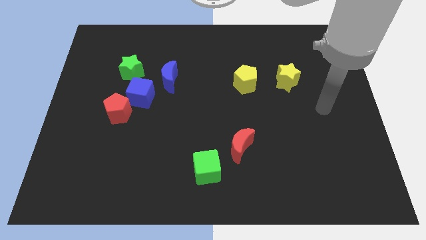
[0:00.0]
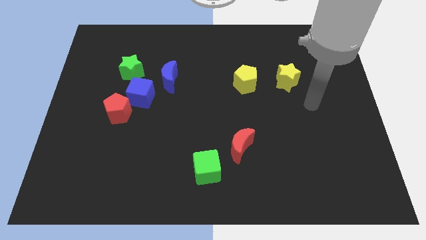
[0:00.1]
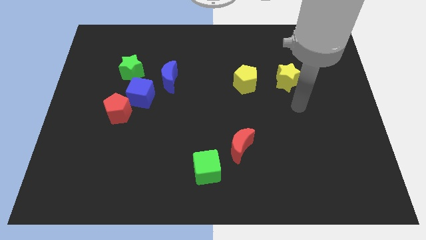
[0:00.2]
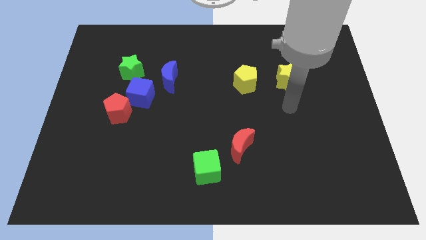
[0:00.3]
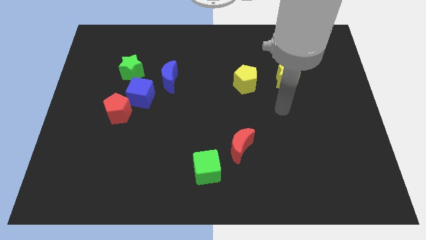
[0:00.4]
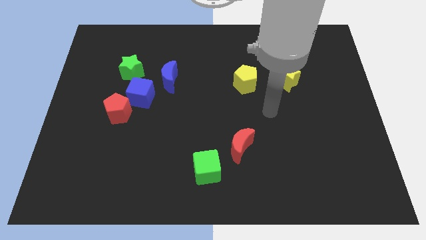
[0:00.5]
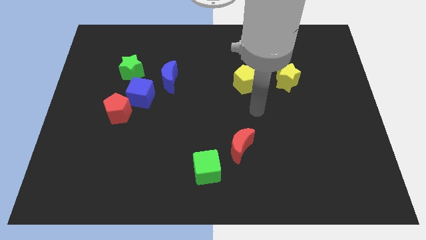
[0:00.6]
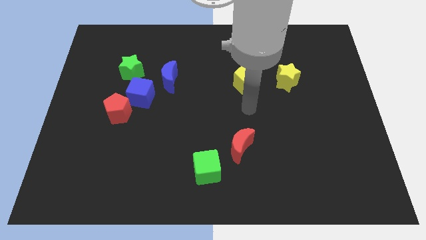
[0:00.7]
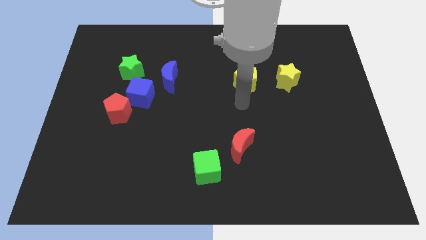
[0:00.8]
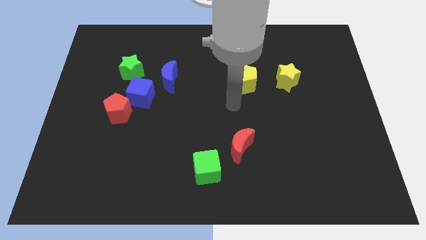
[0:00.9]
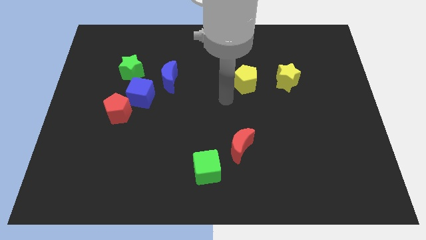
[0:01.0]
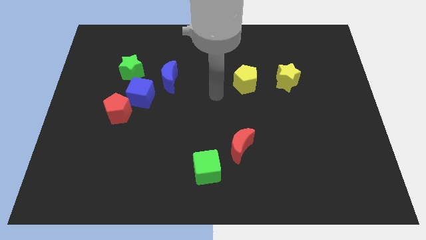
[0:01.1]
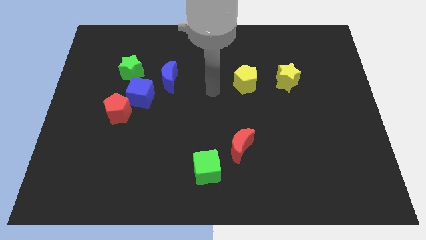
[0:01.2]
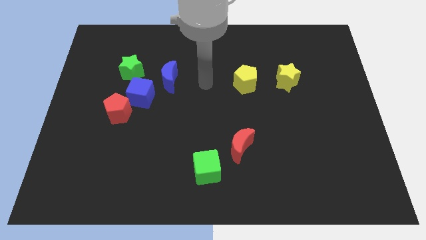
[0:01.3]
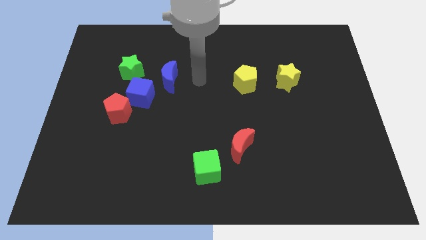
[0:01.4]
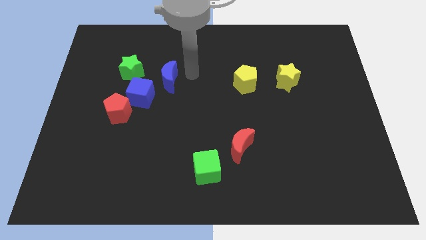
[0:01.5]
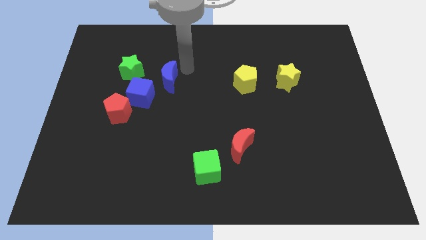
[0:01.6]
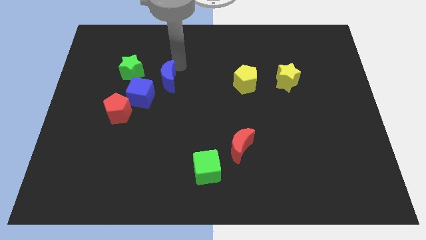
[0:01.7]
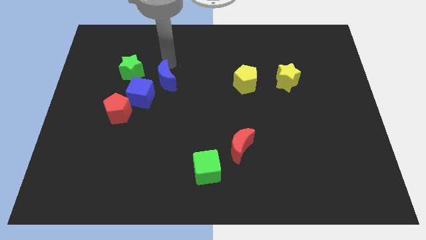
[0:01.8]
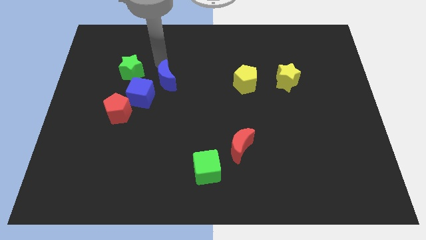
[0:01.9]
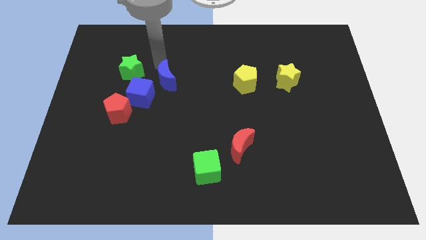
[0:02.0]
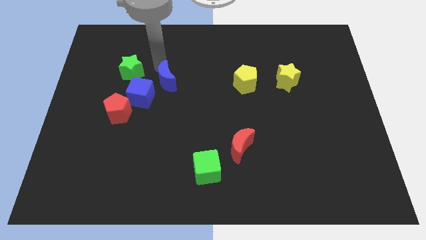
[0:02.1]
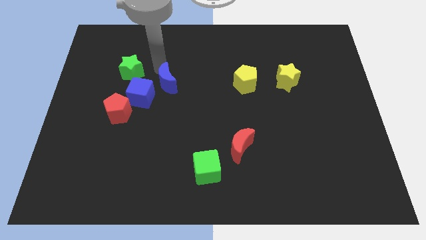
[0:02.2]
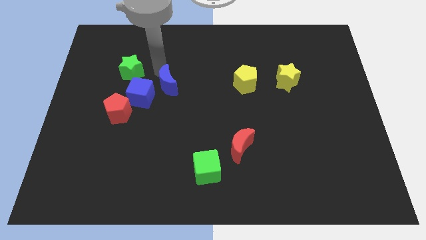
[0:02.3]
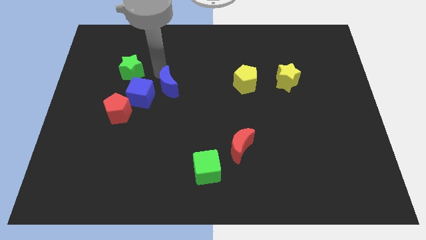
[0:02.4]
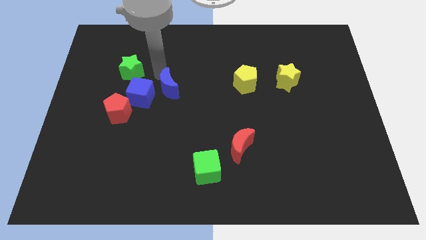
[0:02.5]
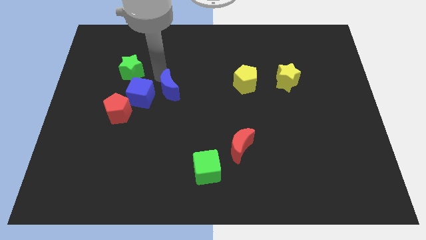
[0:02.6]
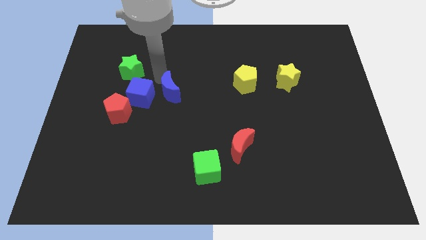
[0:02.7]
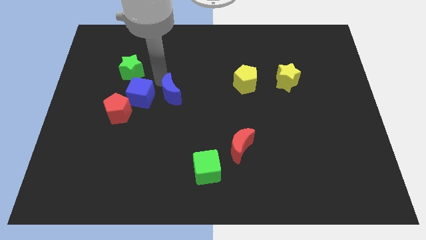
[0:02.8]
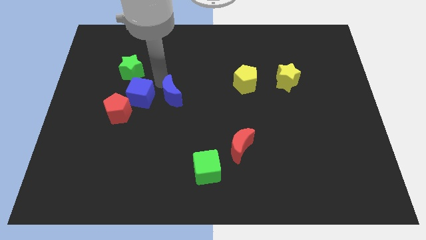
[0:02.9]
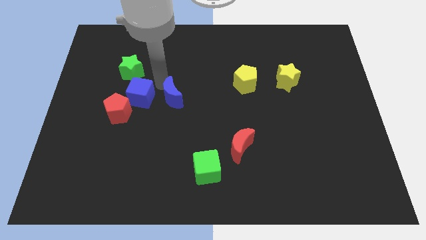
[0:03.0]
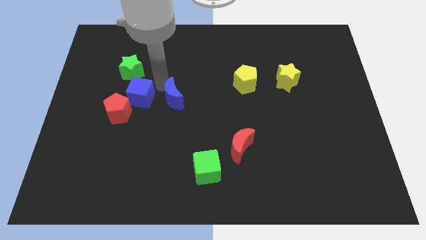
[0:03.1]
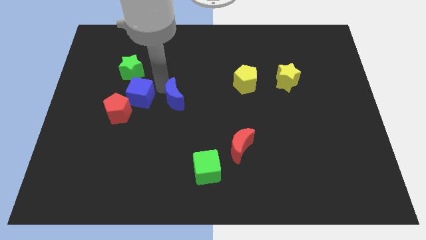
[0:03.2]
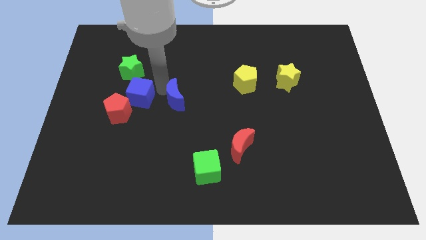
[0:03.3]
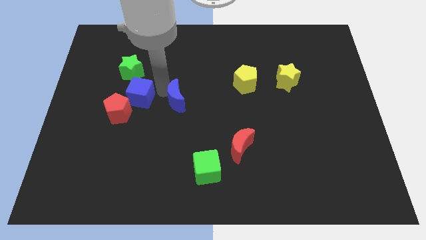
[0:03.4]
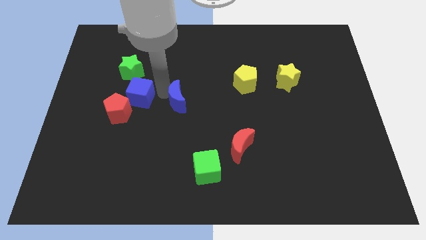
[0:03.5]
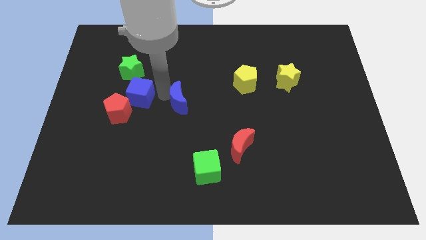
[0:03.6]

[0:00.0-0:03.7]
slightly push the blue moon downwards

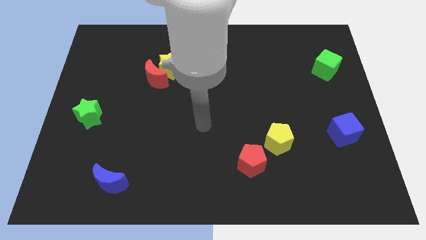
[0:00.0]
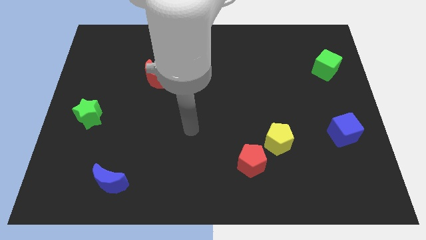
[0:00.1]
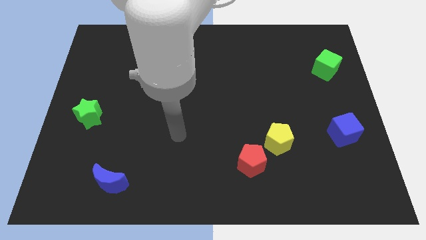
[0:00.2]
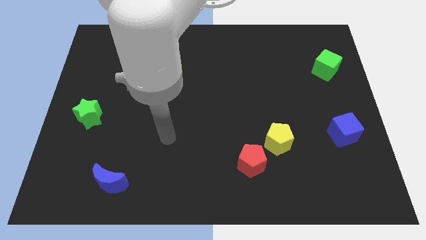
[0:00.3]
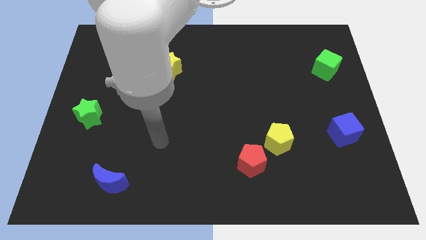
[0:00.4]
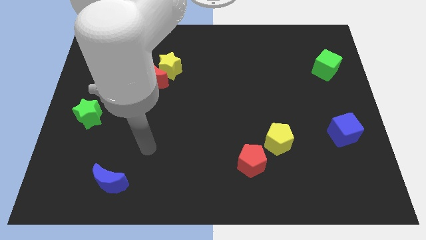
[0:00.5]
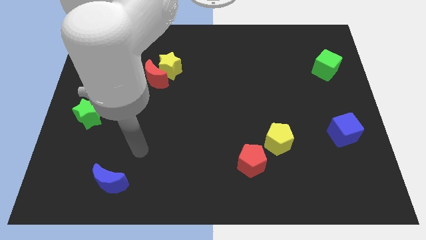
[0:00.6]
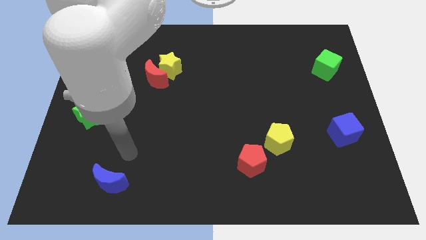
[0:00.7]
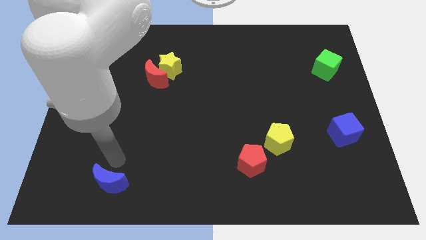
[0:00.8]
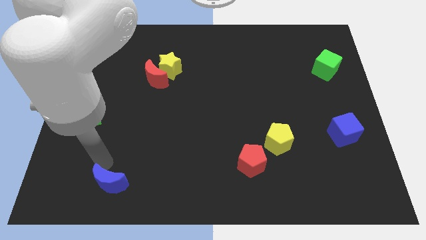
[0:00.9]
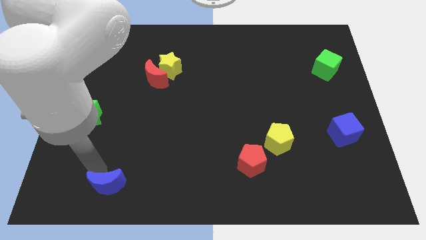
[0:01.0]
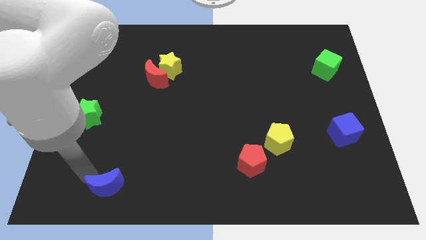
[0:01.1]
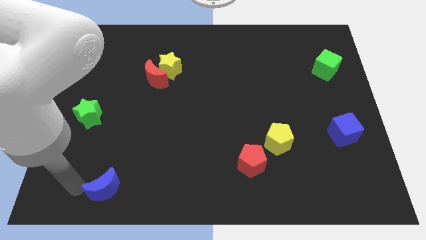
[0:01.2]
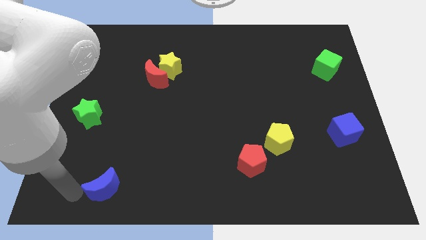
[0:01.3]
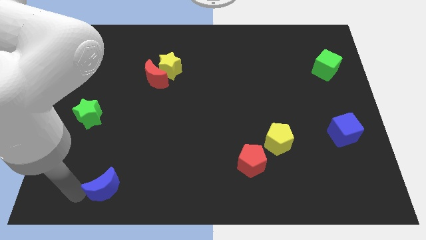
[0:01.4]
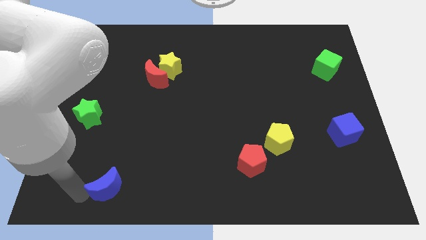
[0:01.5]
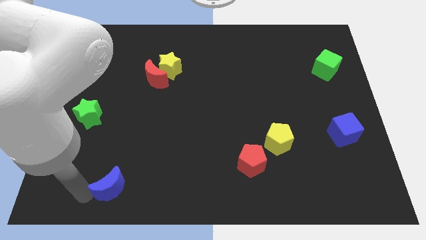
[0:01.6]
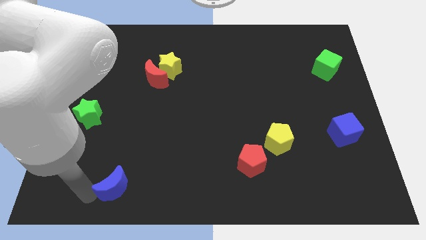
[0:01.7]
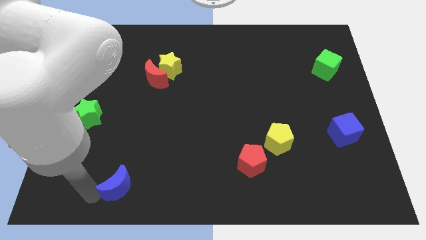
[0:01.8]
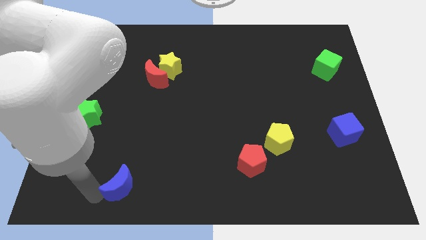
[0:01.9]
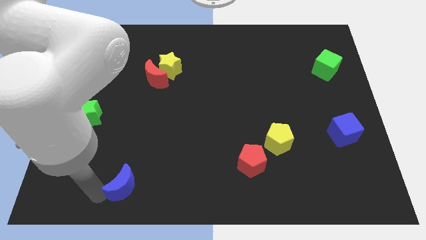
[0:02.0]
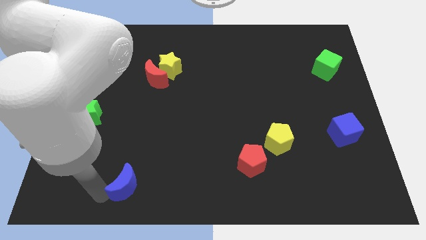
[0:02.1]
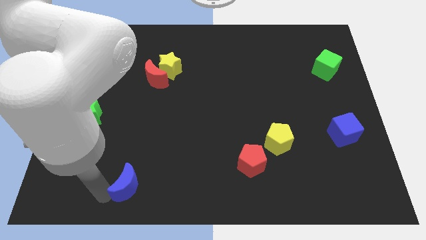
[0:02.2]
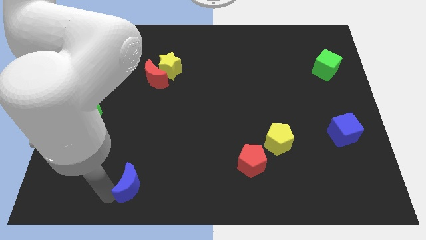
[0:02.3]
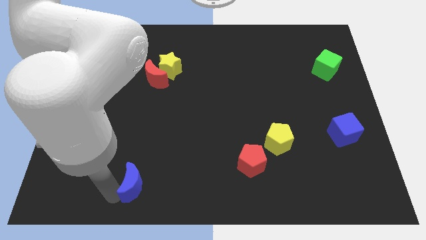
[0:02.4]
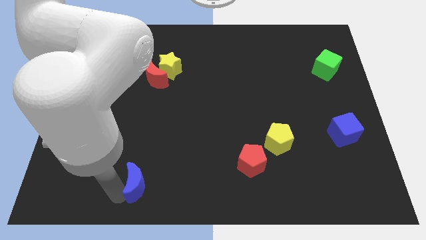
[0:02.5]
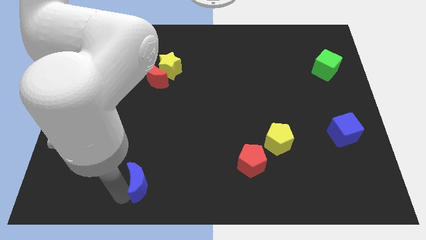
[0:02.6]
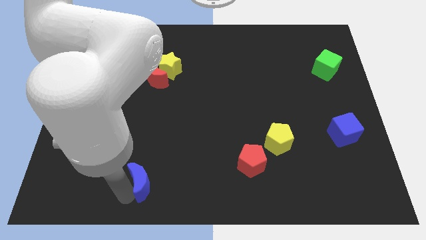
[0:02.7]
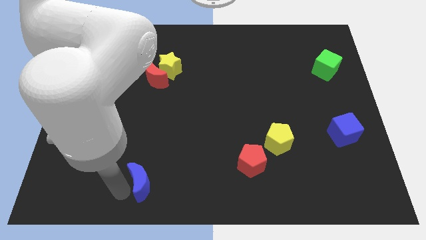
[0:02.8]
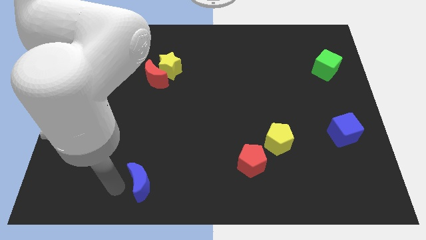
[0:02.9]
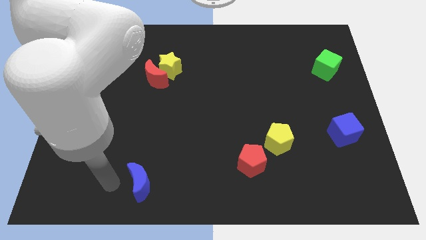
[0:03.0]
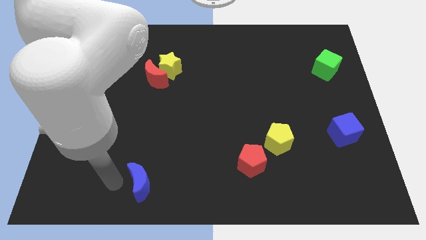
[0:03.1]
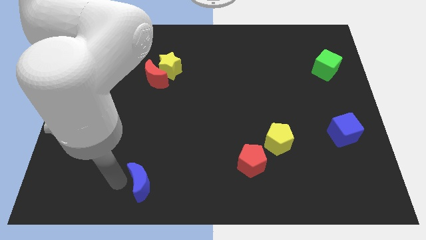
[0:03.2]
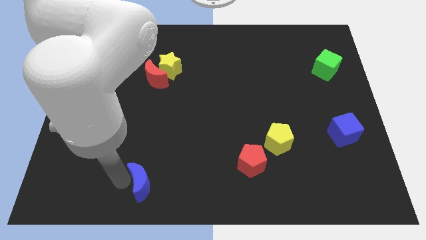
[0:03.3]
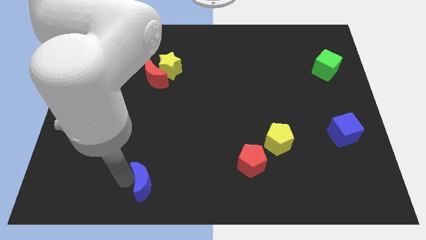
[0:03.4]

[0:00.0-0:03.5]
slightly slide the blue moon to the right

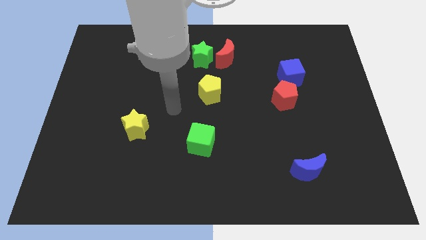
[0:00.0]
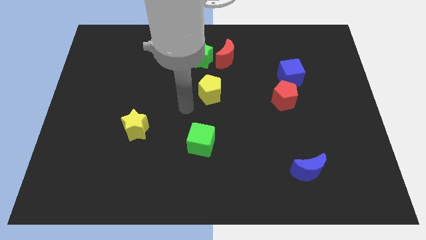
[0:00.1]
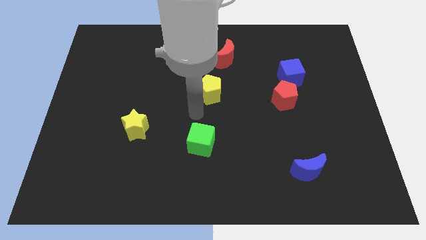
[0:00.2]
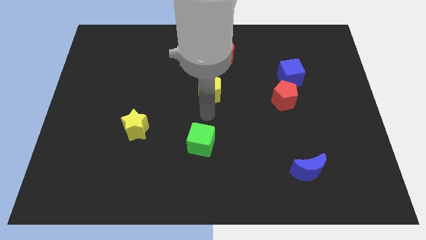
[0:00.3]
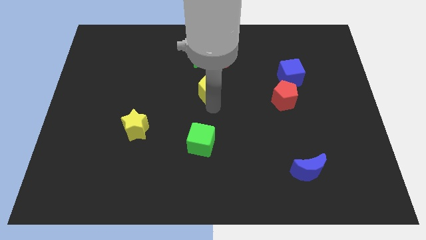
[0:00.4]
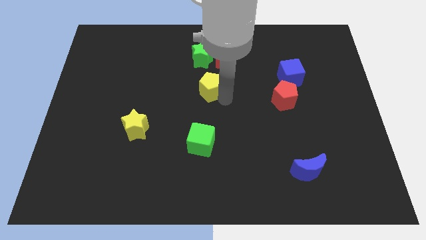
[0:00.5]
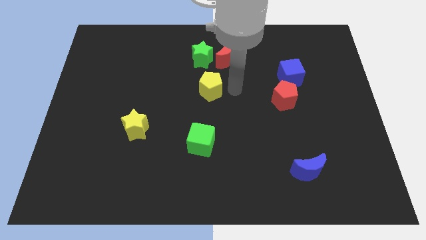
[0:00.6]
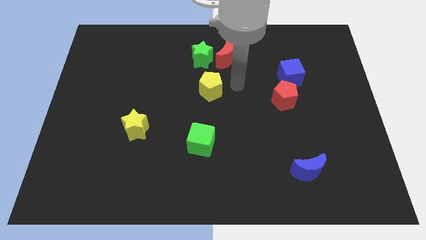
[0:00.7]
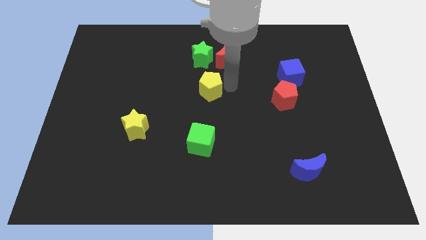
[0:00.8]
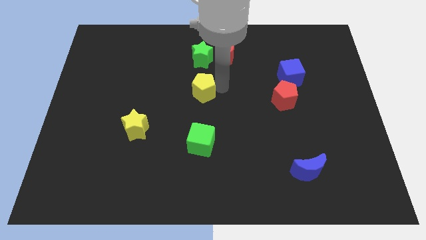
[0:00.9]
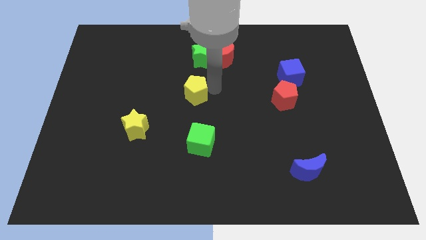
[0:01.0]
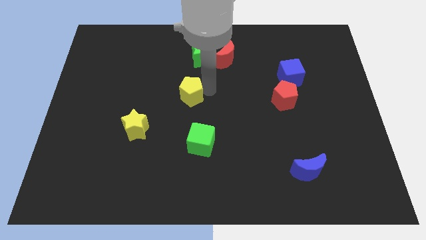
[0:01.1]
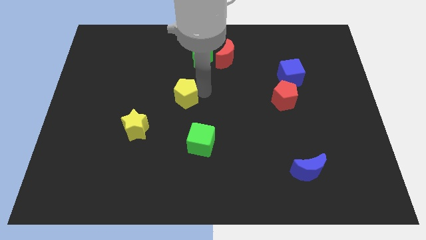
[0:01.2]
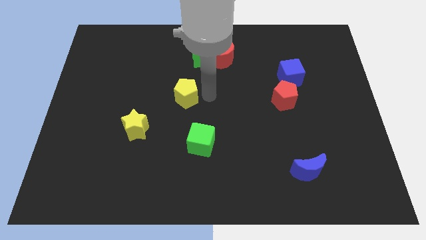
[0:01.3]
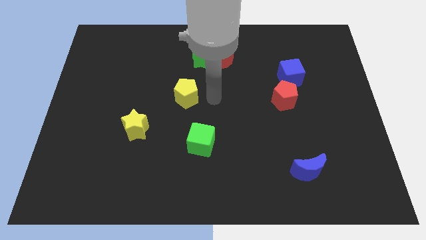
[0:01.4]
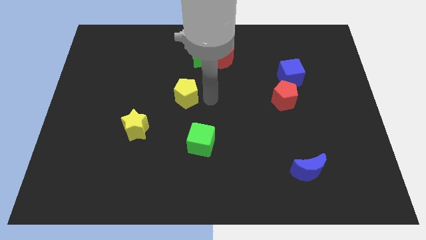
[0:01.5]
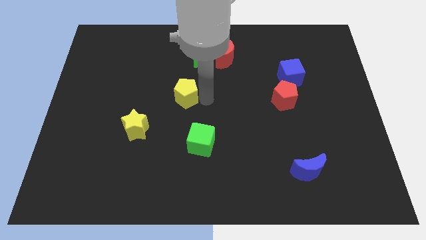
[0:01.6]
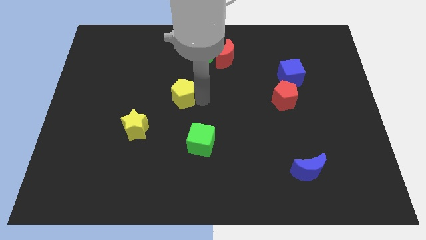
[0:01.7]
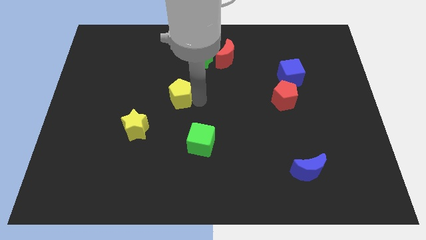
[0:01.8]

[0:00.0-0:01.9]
slightly slide the yellow pentagon left
